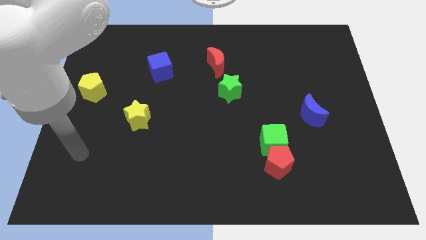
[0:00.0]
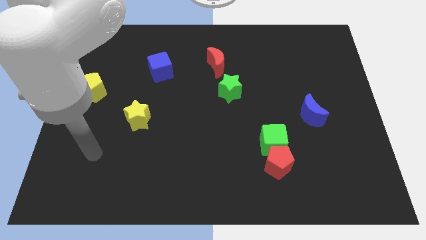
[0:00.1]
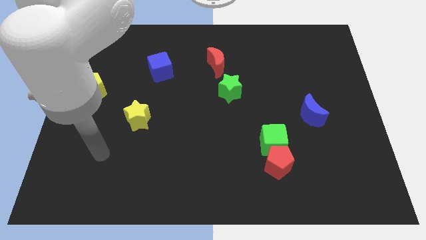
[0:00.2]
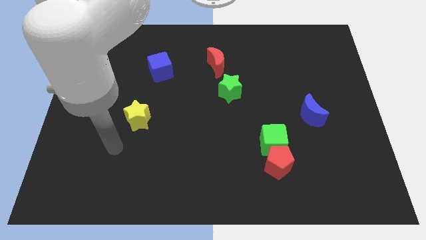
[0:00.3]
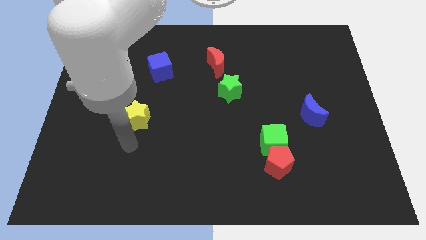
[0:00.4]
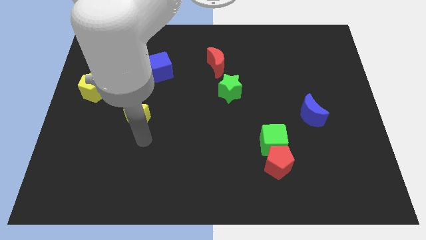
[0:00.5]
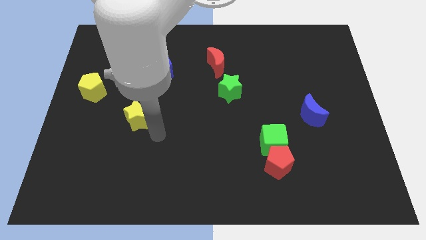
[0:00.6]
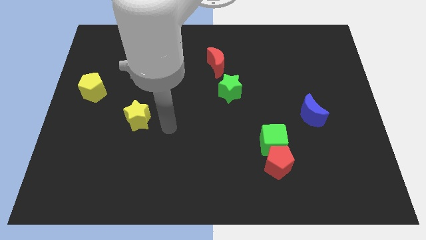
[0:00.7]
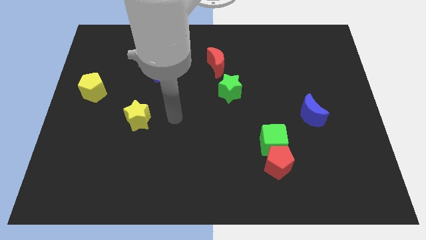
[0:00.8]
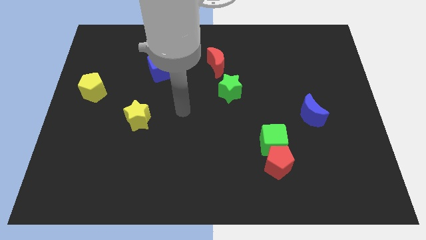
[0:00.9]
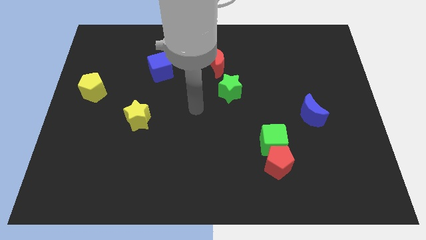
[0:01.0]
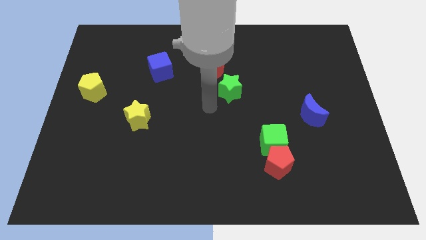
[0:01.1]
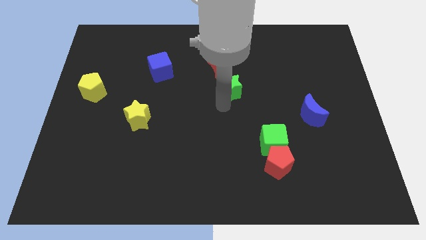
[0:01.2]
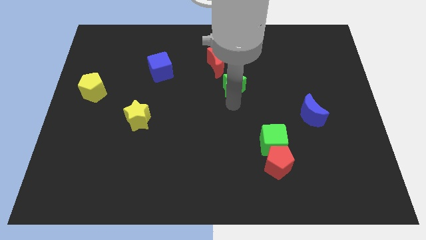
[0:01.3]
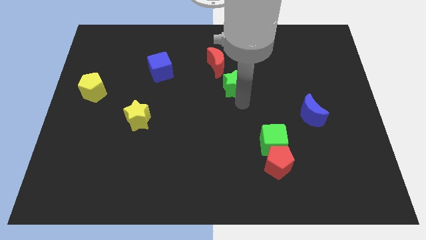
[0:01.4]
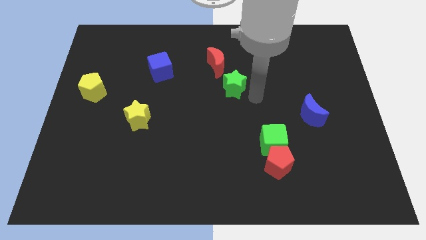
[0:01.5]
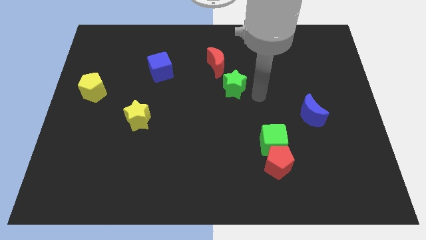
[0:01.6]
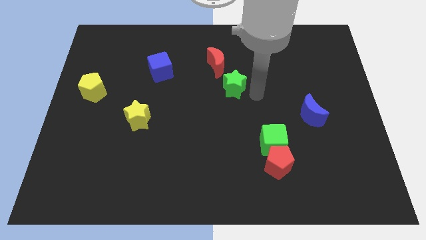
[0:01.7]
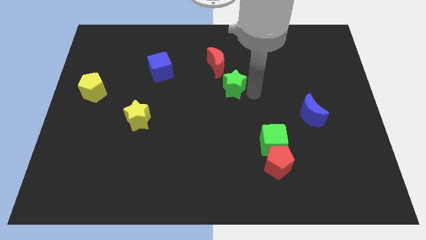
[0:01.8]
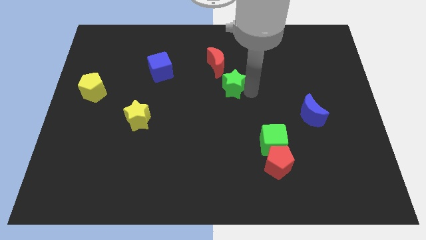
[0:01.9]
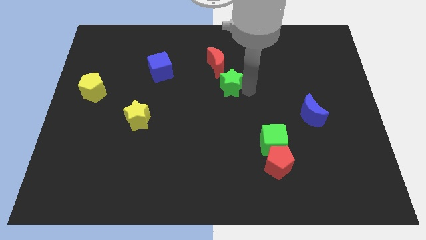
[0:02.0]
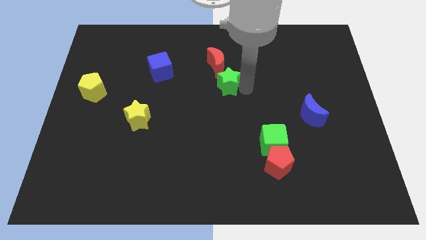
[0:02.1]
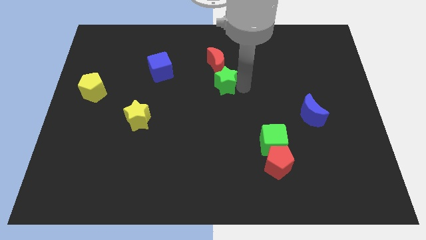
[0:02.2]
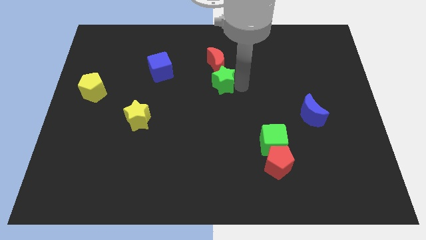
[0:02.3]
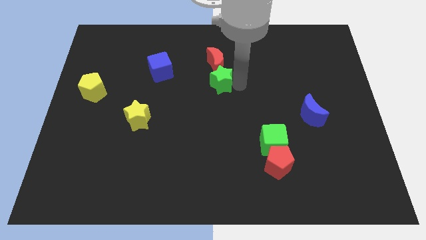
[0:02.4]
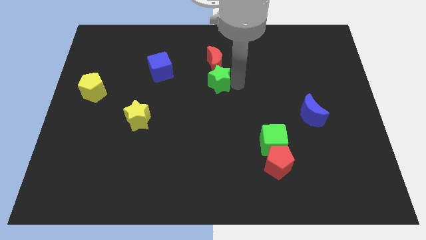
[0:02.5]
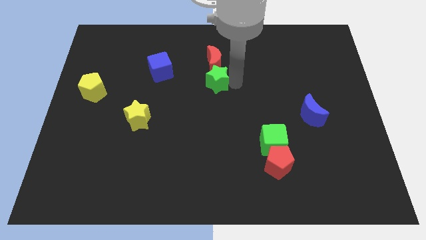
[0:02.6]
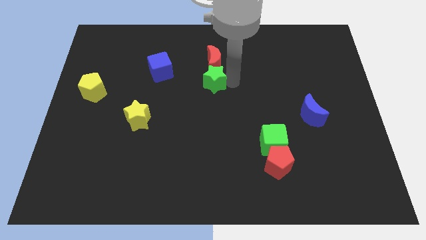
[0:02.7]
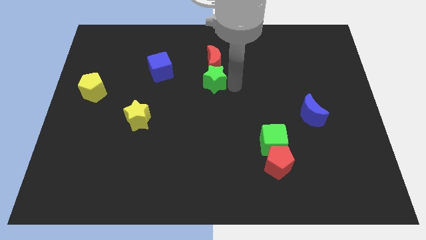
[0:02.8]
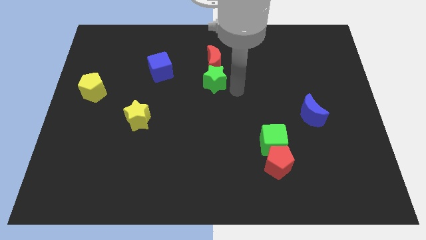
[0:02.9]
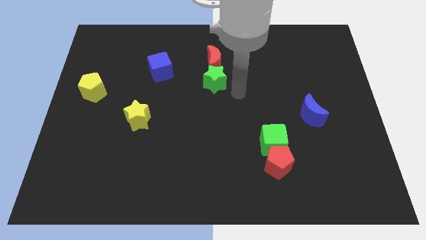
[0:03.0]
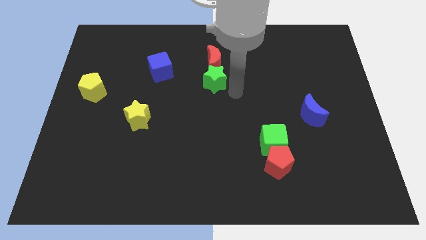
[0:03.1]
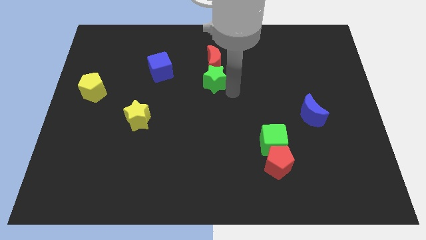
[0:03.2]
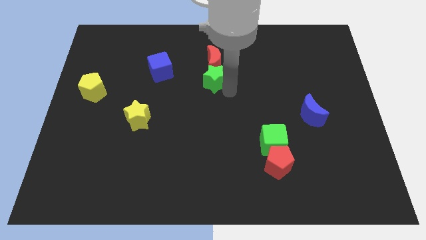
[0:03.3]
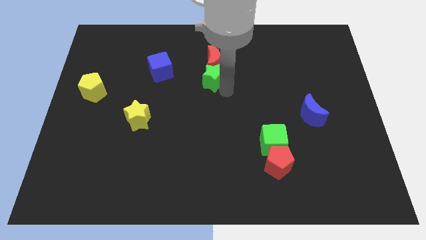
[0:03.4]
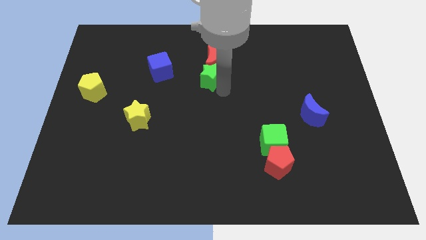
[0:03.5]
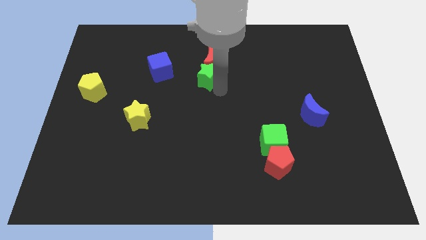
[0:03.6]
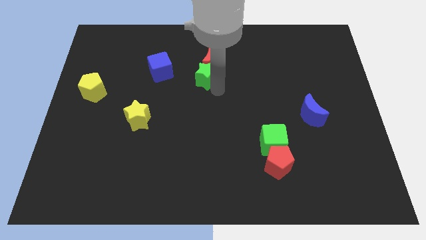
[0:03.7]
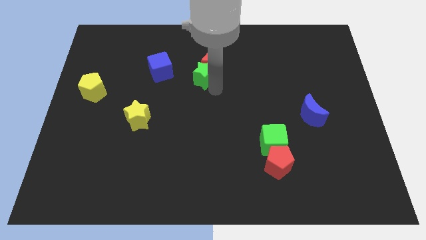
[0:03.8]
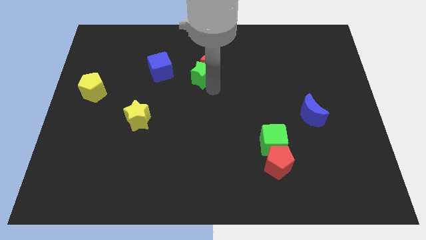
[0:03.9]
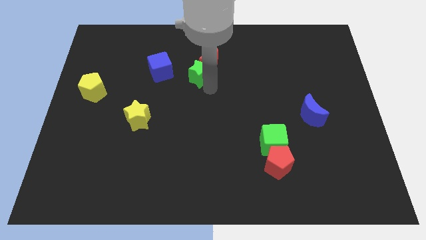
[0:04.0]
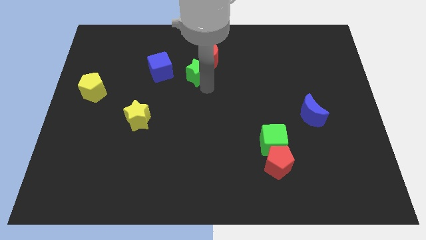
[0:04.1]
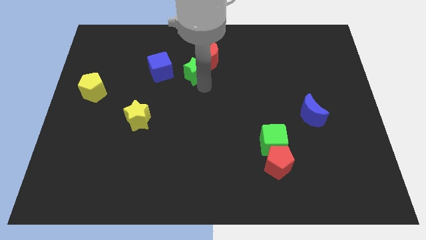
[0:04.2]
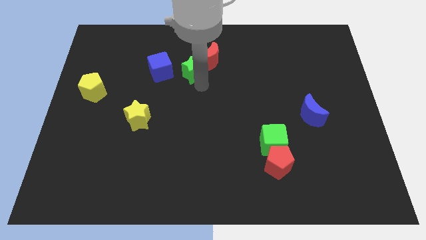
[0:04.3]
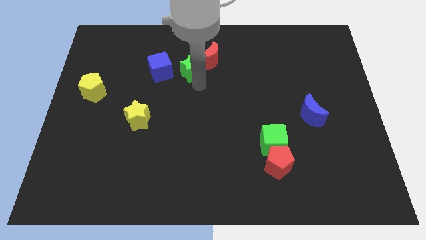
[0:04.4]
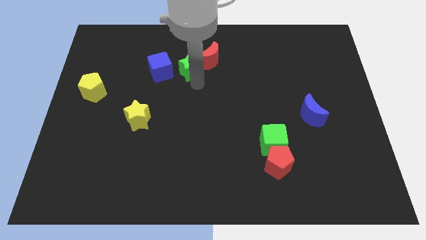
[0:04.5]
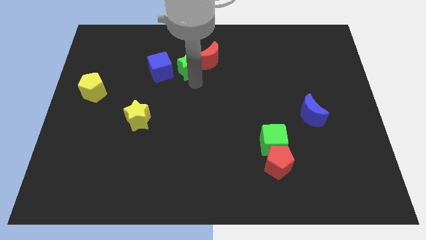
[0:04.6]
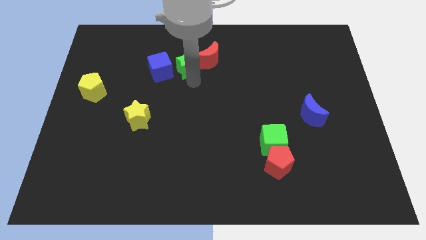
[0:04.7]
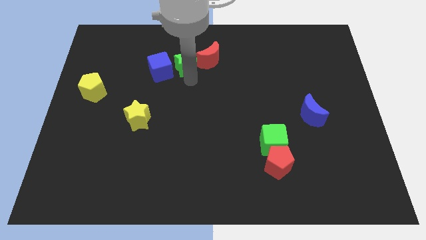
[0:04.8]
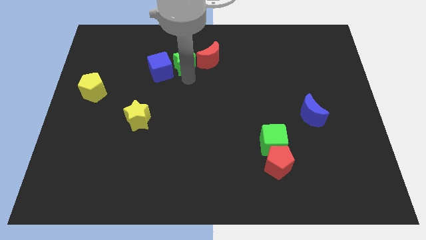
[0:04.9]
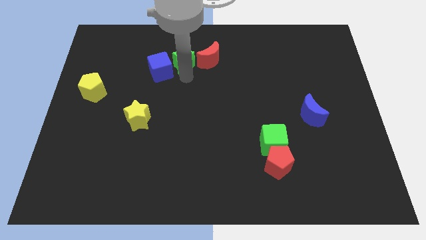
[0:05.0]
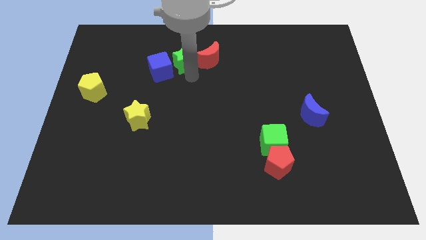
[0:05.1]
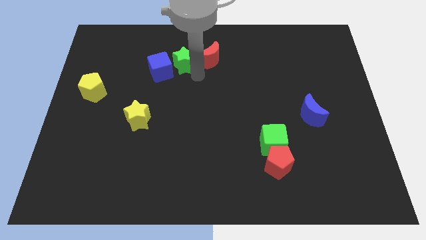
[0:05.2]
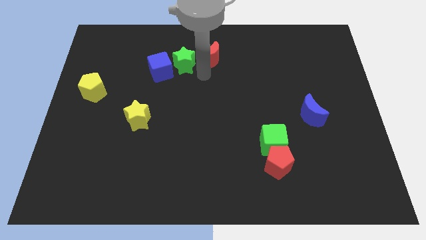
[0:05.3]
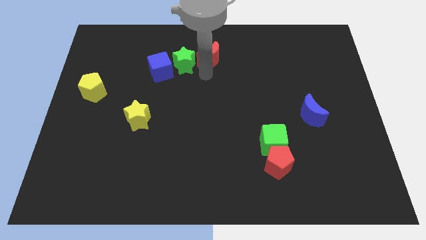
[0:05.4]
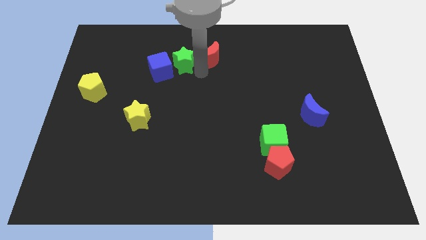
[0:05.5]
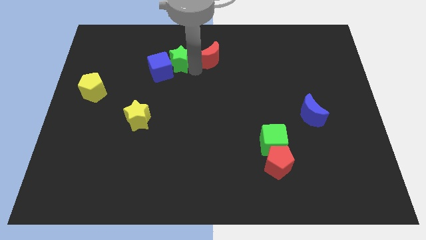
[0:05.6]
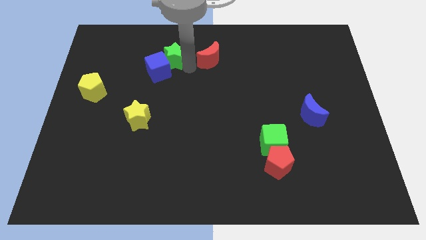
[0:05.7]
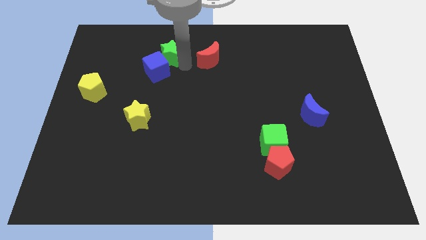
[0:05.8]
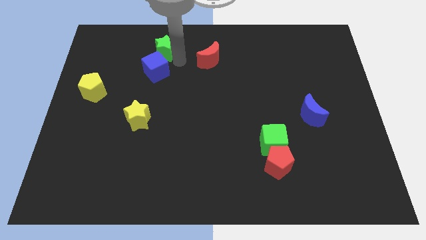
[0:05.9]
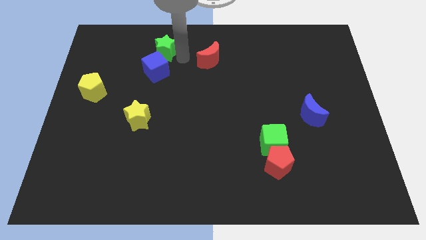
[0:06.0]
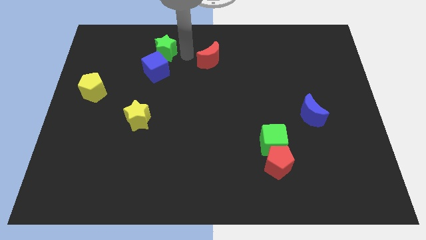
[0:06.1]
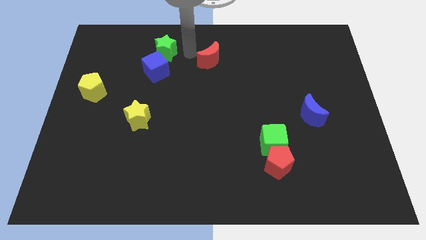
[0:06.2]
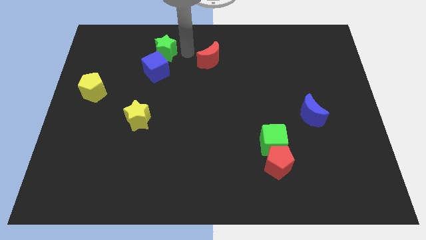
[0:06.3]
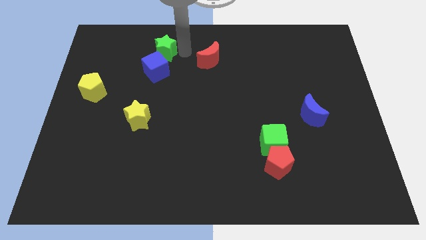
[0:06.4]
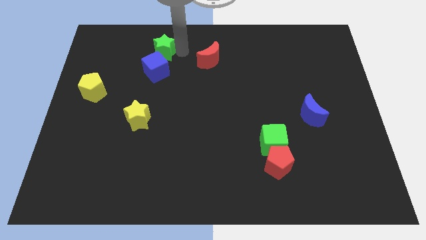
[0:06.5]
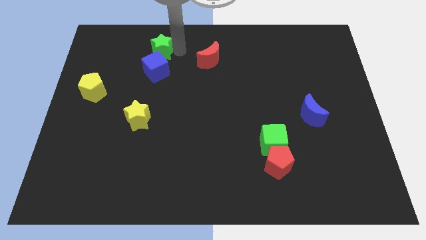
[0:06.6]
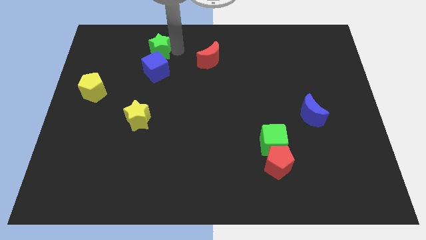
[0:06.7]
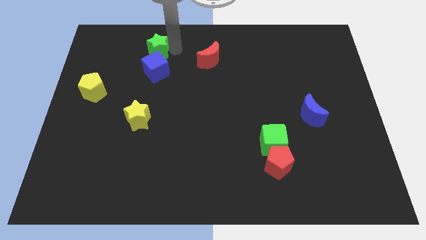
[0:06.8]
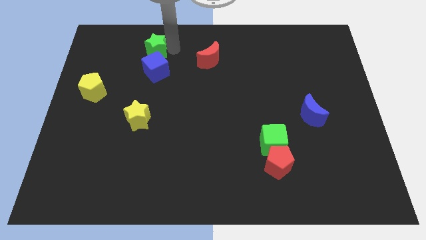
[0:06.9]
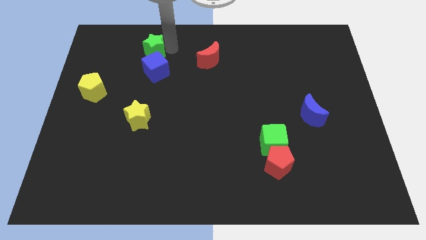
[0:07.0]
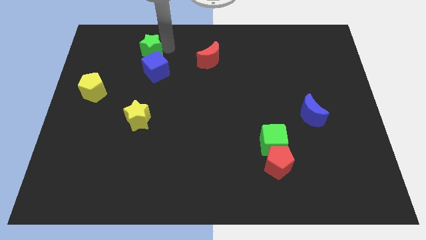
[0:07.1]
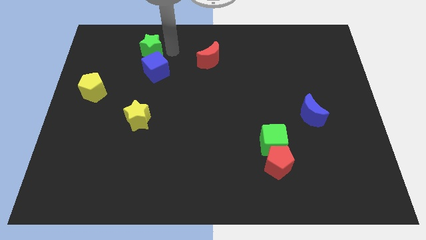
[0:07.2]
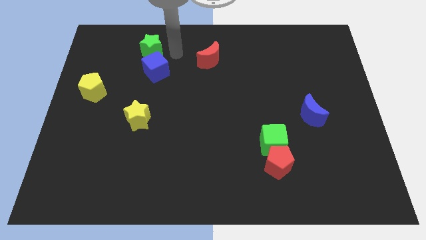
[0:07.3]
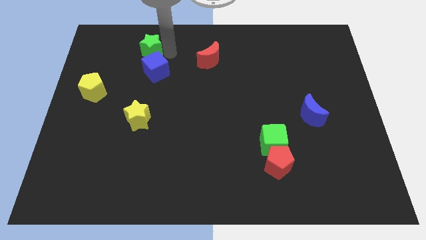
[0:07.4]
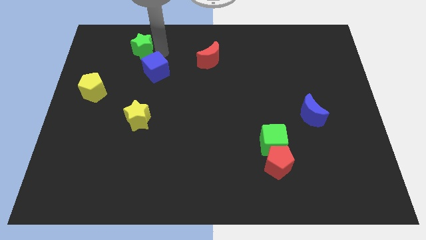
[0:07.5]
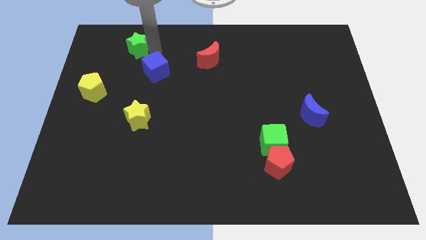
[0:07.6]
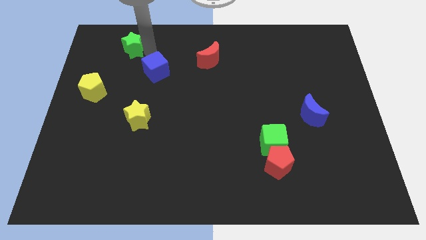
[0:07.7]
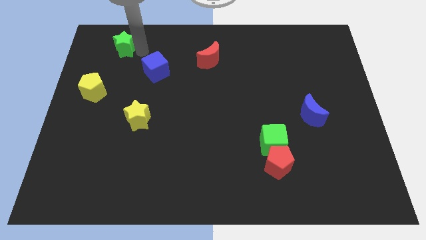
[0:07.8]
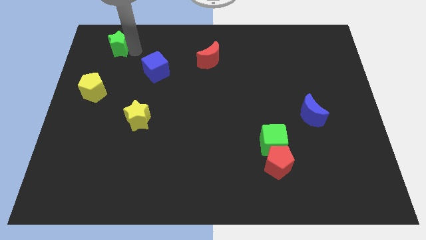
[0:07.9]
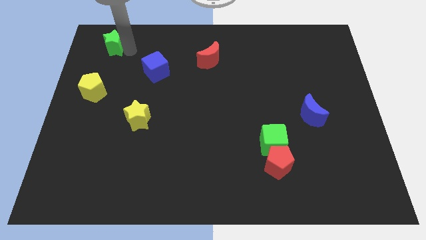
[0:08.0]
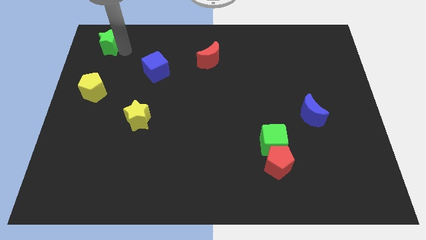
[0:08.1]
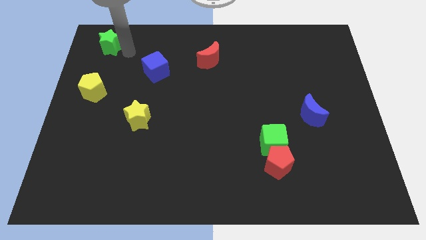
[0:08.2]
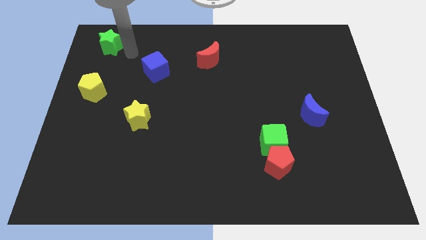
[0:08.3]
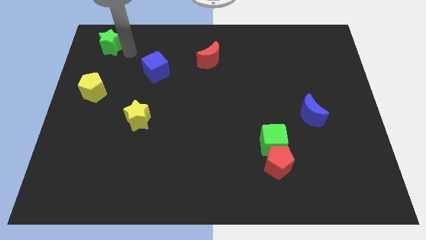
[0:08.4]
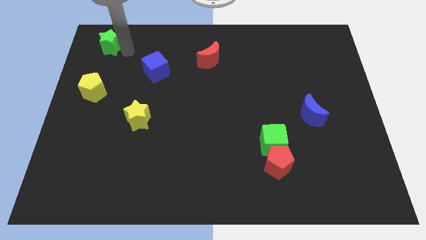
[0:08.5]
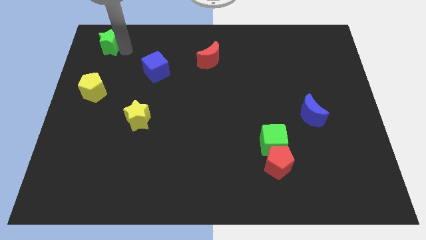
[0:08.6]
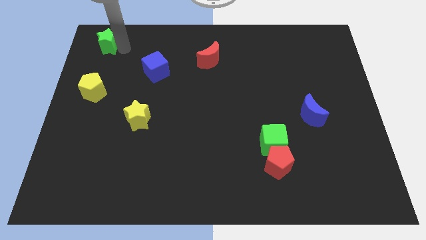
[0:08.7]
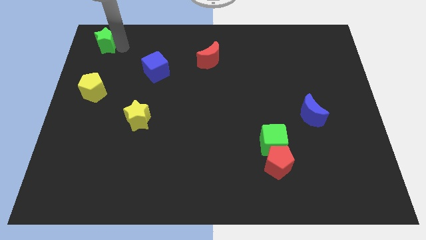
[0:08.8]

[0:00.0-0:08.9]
move the green star to the top left
